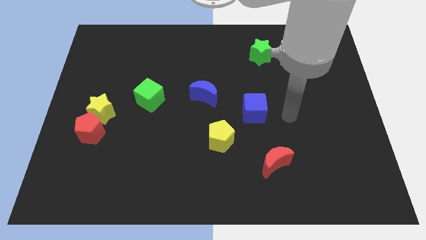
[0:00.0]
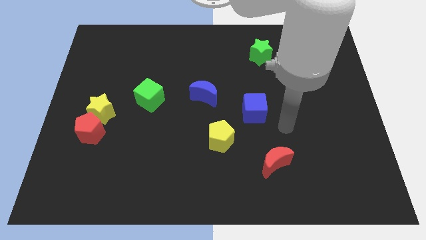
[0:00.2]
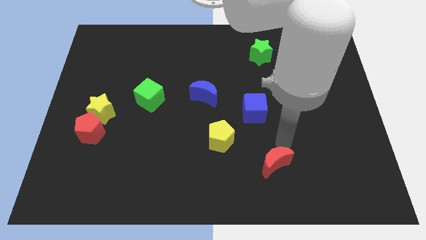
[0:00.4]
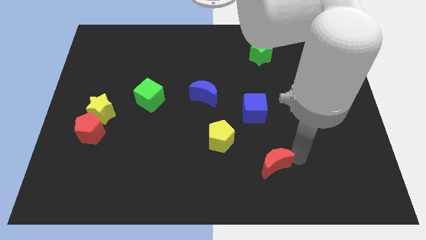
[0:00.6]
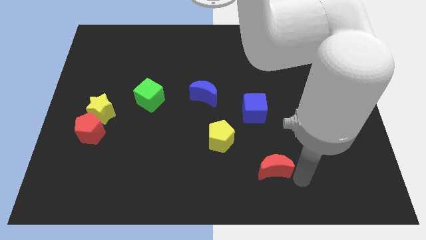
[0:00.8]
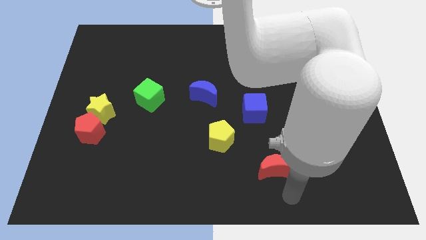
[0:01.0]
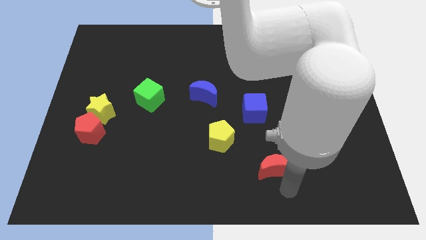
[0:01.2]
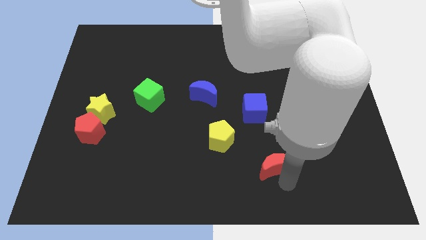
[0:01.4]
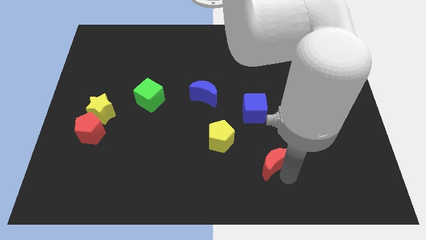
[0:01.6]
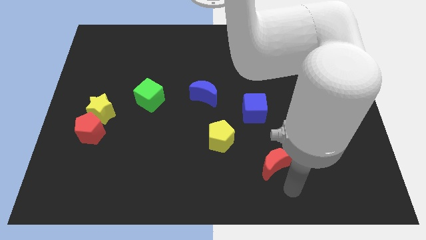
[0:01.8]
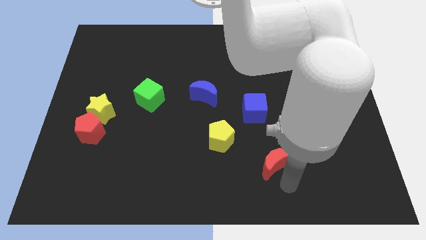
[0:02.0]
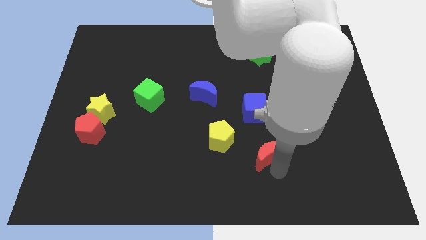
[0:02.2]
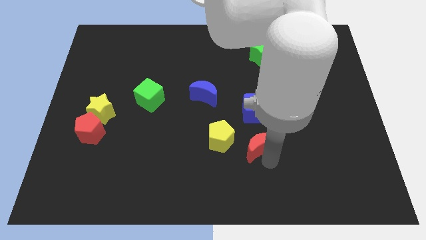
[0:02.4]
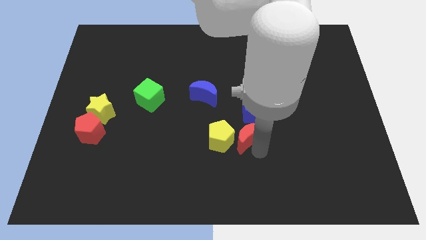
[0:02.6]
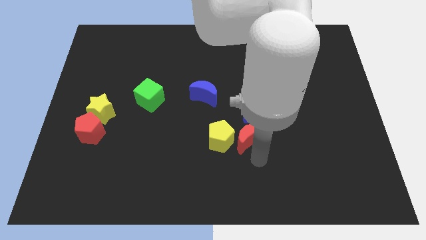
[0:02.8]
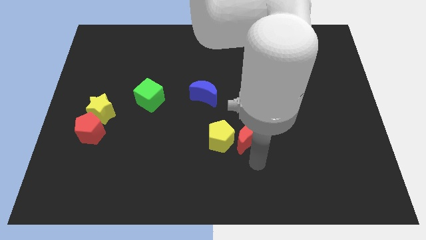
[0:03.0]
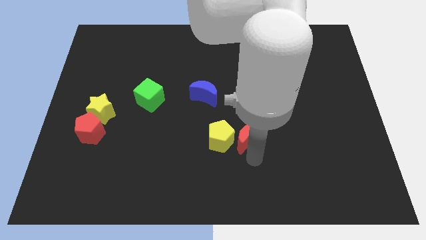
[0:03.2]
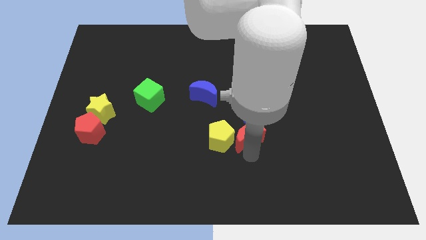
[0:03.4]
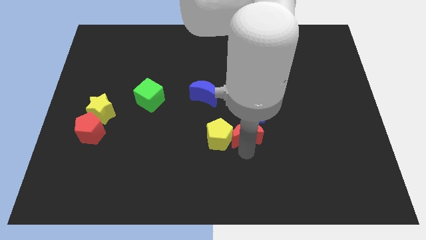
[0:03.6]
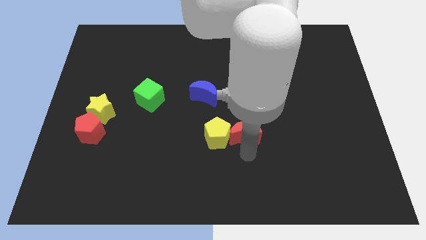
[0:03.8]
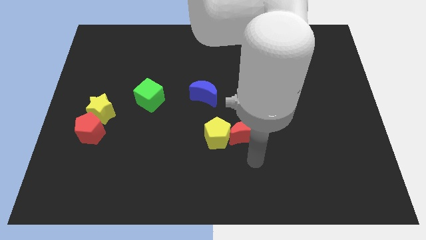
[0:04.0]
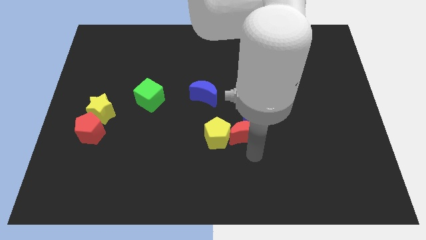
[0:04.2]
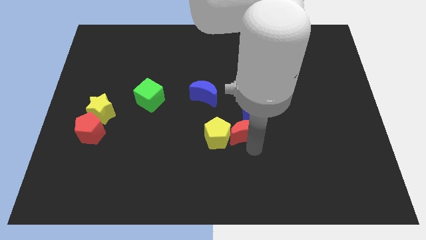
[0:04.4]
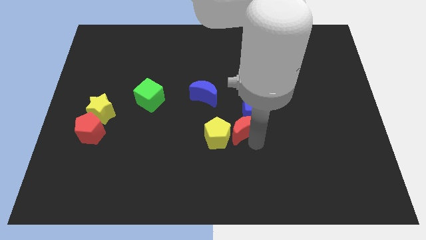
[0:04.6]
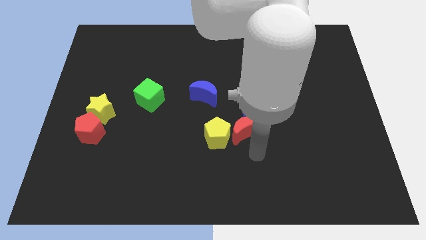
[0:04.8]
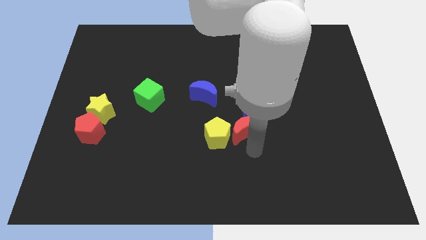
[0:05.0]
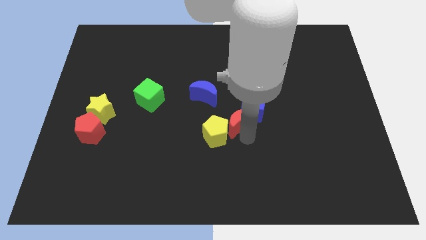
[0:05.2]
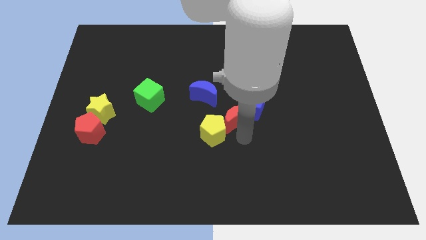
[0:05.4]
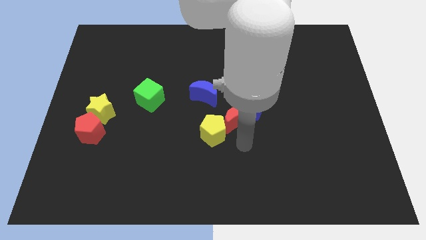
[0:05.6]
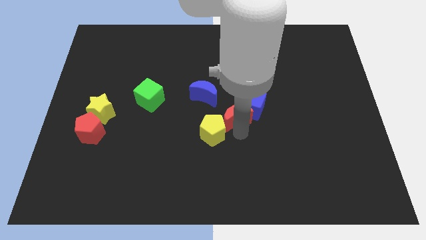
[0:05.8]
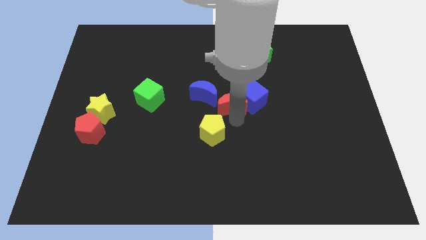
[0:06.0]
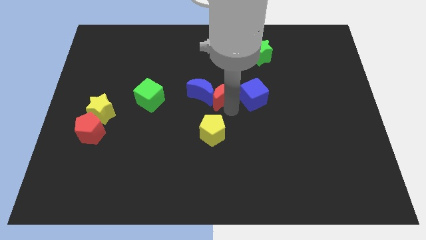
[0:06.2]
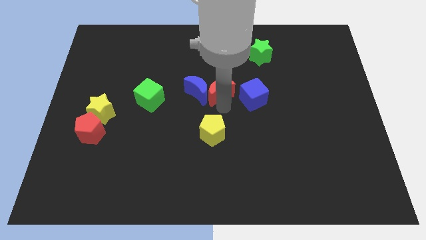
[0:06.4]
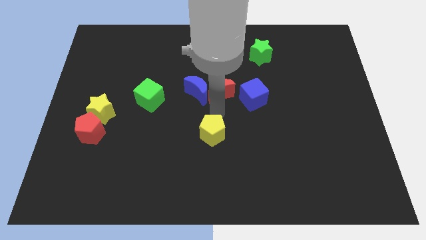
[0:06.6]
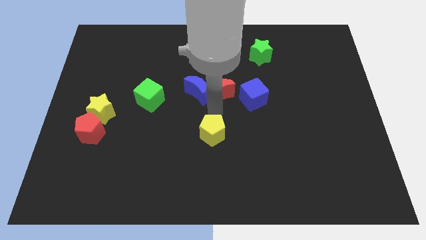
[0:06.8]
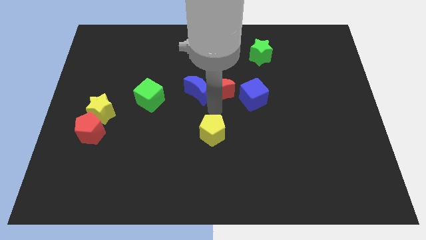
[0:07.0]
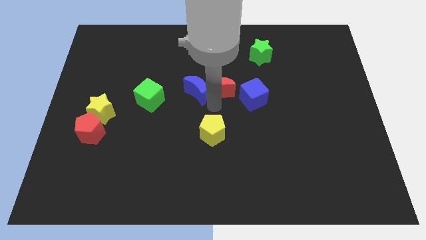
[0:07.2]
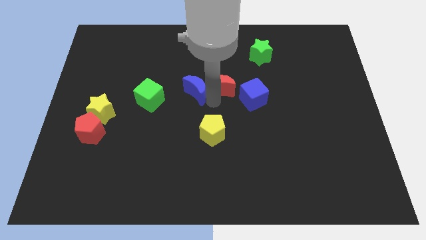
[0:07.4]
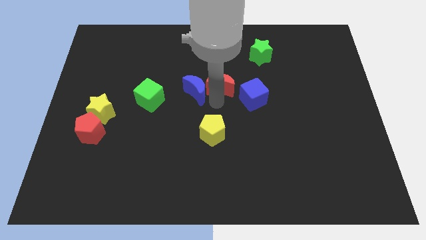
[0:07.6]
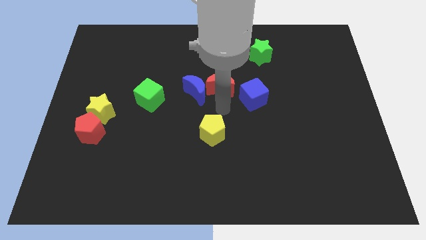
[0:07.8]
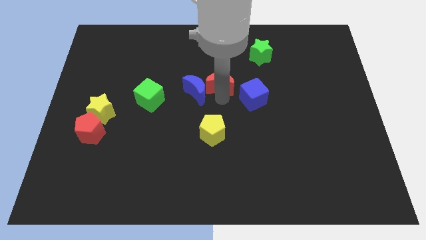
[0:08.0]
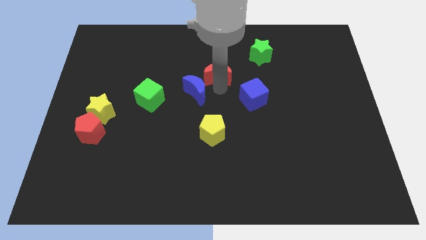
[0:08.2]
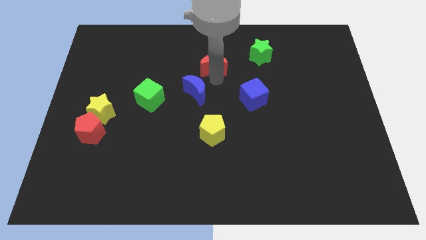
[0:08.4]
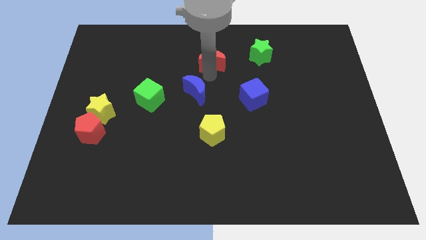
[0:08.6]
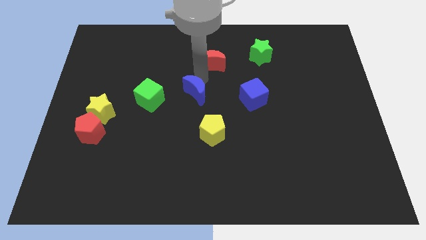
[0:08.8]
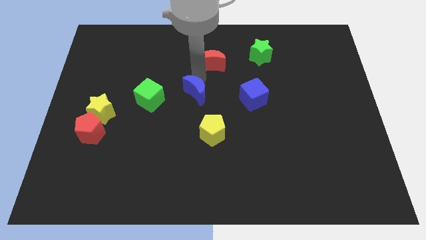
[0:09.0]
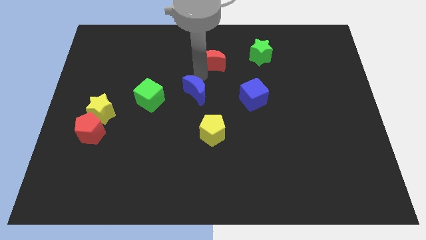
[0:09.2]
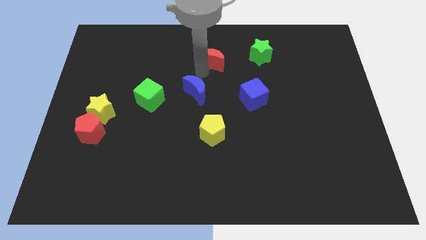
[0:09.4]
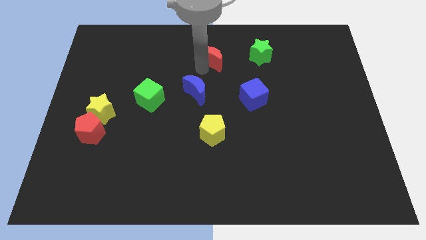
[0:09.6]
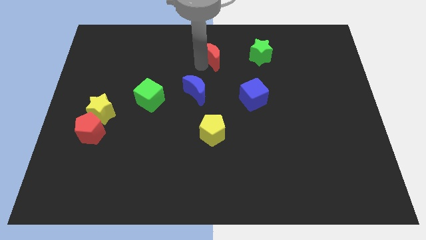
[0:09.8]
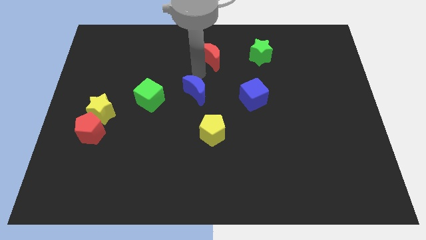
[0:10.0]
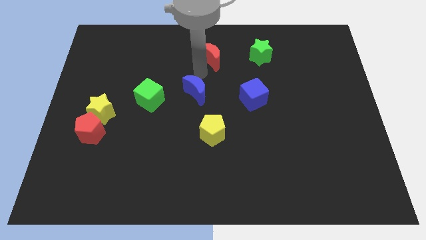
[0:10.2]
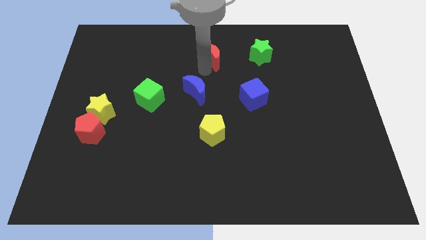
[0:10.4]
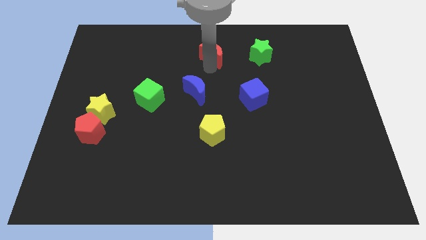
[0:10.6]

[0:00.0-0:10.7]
put the red moon to the towards your base
